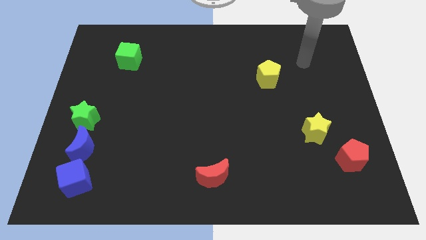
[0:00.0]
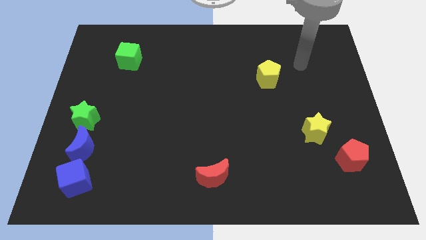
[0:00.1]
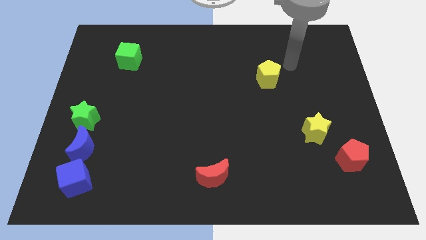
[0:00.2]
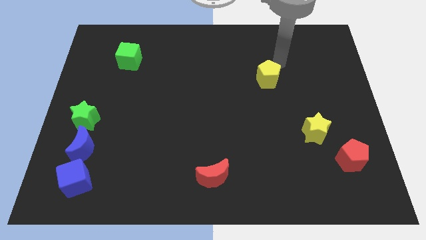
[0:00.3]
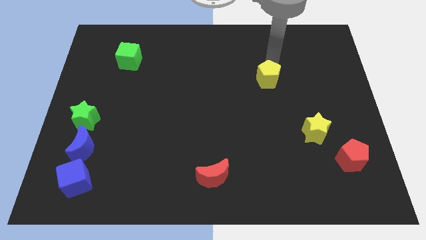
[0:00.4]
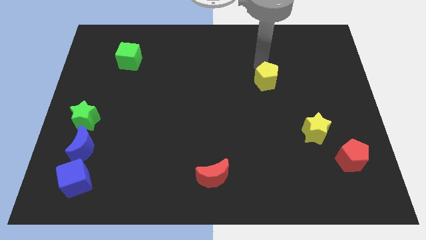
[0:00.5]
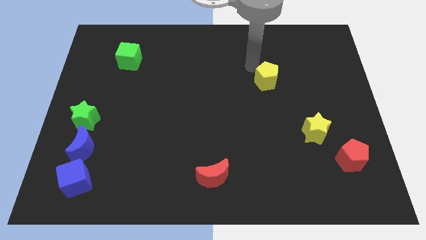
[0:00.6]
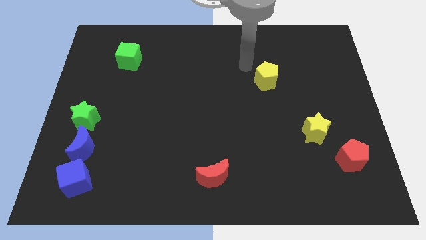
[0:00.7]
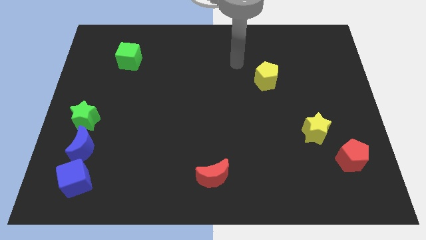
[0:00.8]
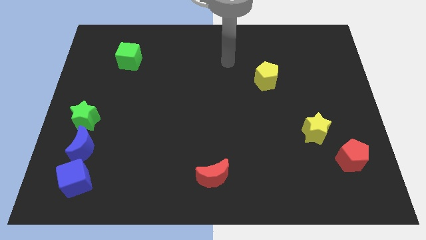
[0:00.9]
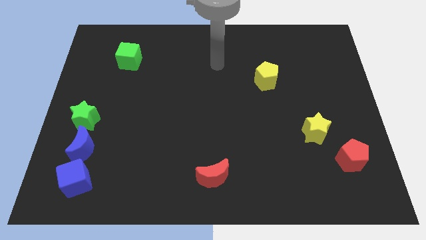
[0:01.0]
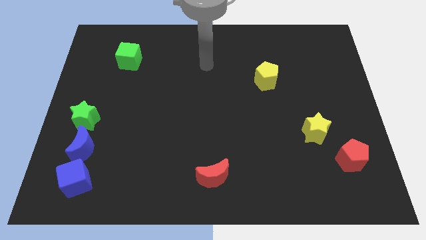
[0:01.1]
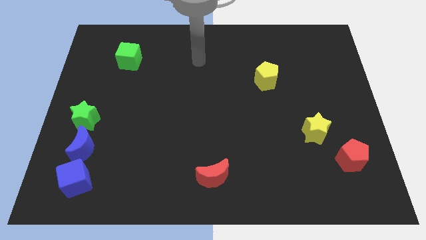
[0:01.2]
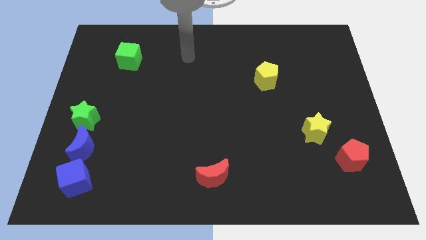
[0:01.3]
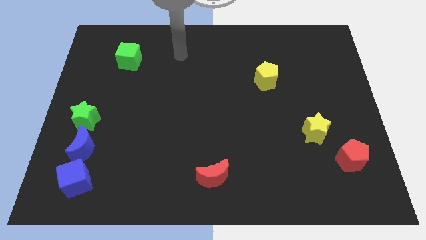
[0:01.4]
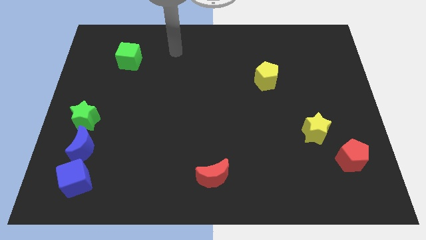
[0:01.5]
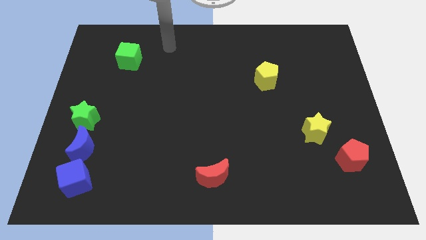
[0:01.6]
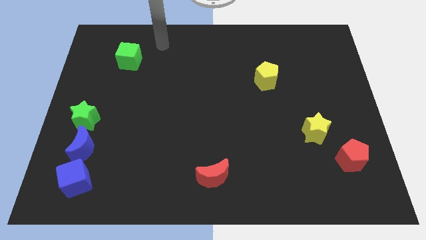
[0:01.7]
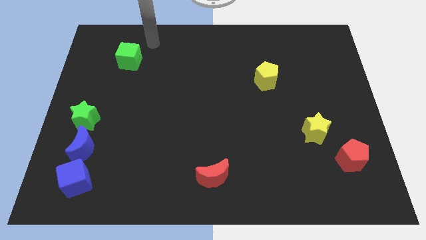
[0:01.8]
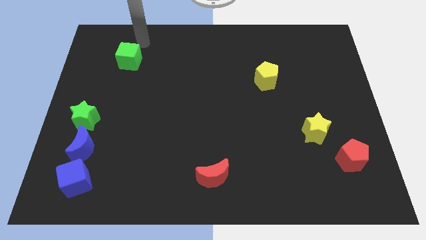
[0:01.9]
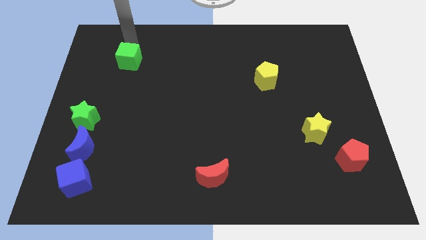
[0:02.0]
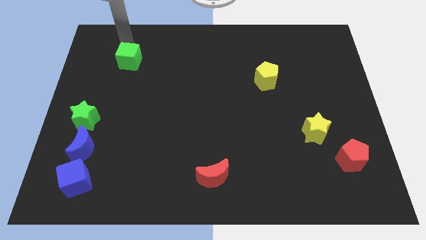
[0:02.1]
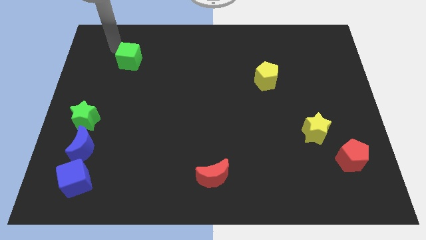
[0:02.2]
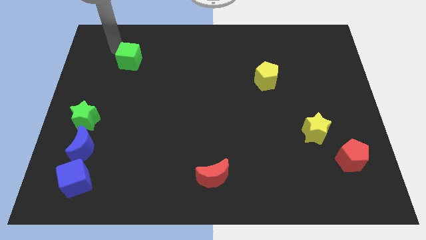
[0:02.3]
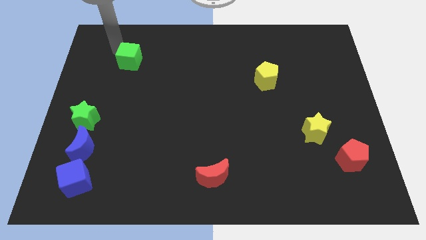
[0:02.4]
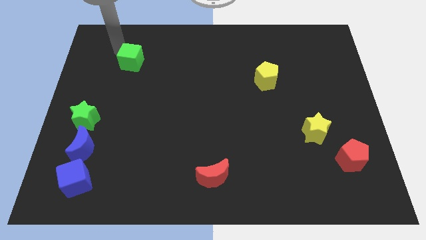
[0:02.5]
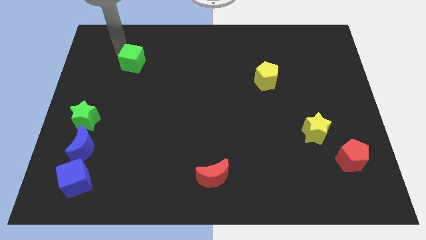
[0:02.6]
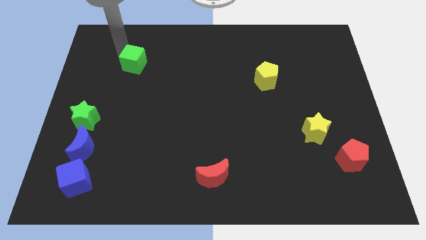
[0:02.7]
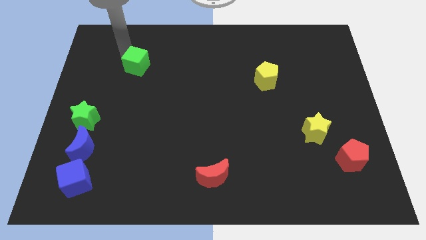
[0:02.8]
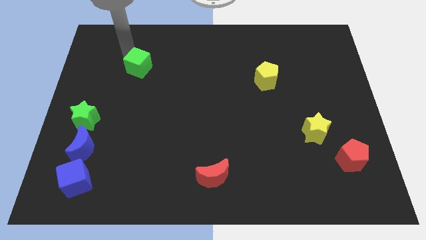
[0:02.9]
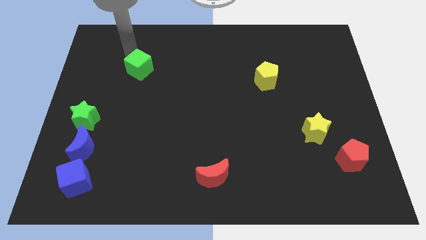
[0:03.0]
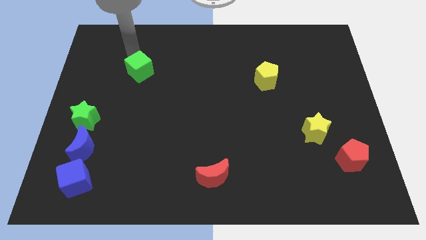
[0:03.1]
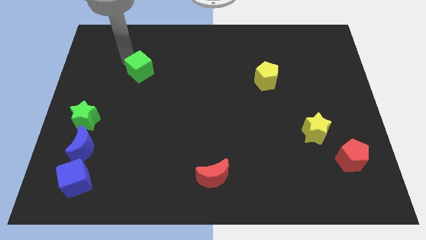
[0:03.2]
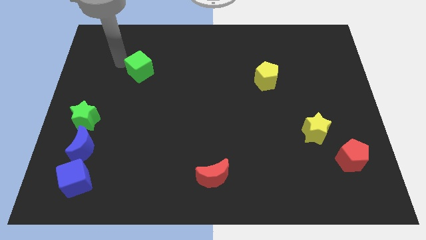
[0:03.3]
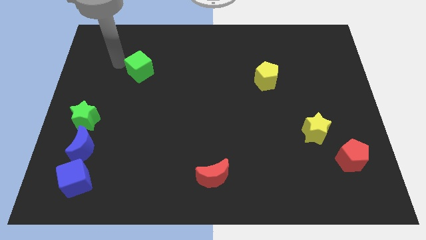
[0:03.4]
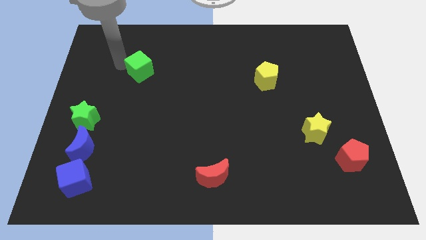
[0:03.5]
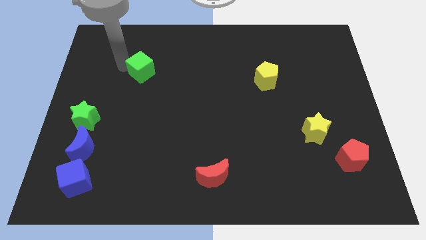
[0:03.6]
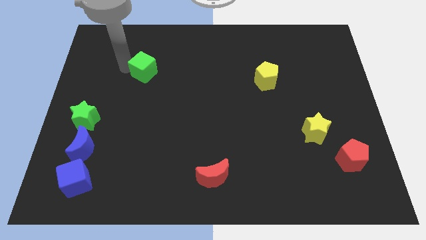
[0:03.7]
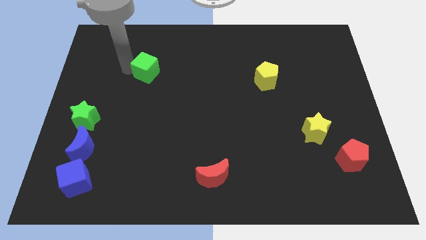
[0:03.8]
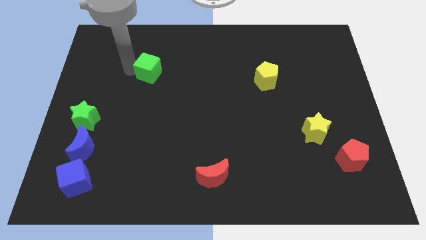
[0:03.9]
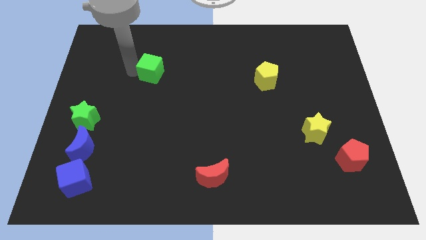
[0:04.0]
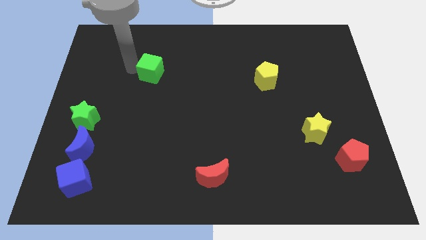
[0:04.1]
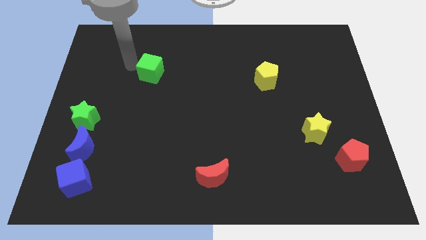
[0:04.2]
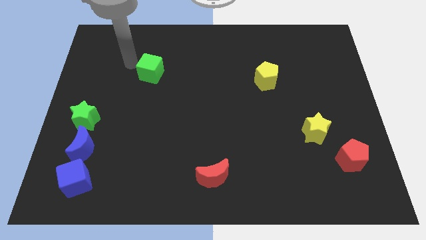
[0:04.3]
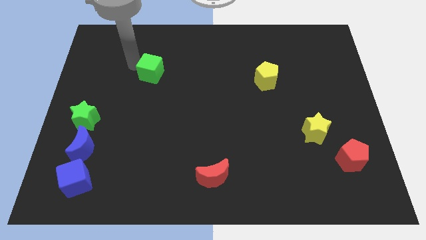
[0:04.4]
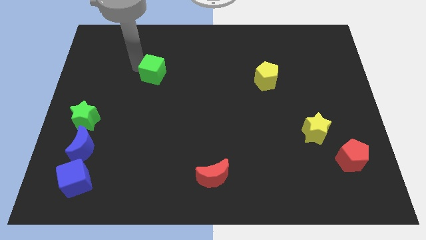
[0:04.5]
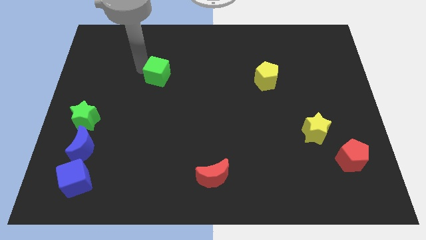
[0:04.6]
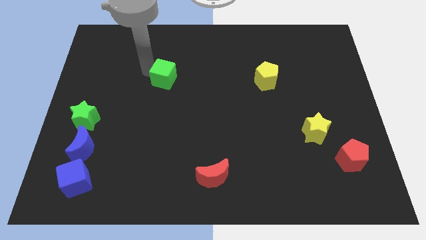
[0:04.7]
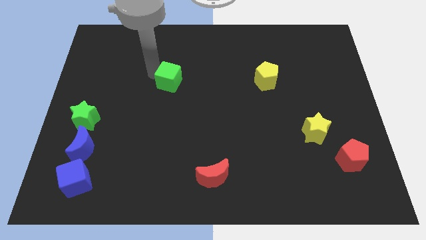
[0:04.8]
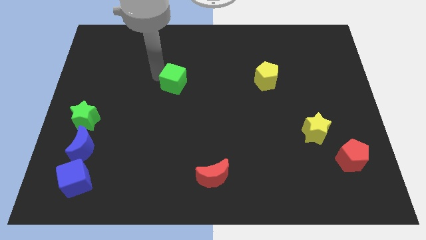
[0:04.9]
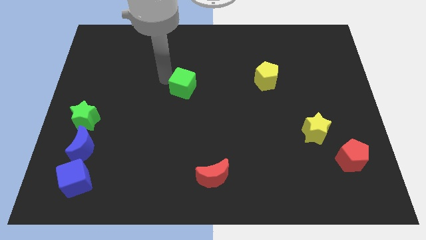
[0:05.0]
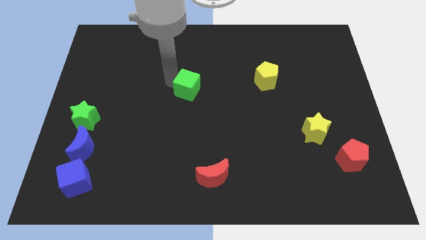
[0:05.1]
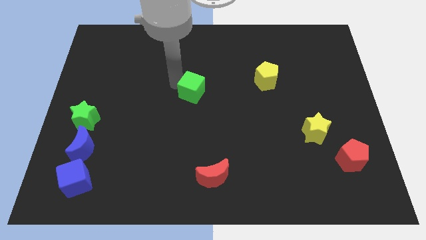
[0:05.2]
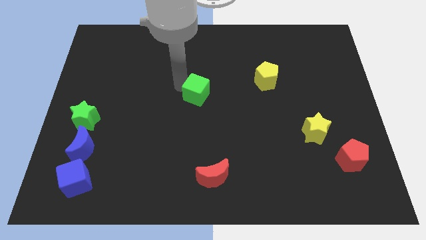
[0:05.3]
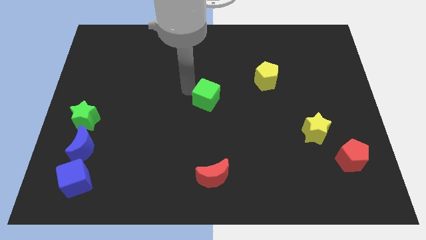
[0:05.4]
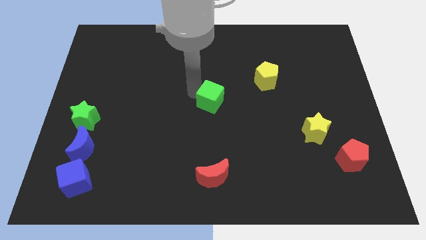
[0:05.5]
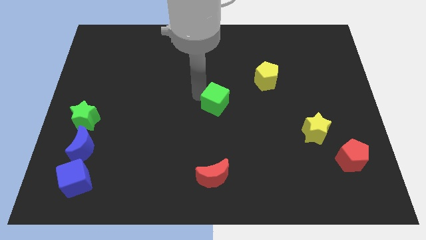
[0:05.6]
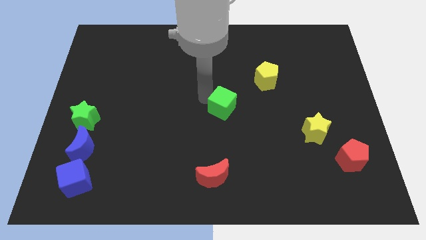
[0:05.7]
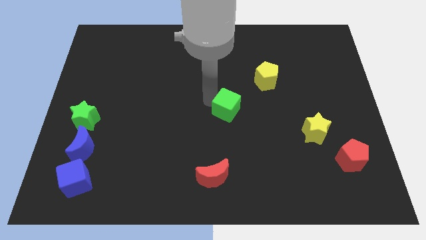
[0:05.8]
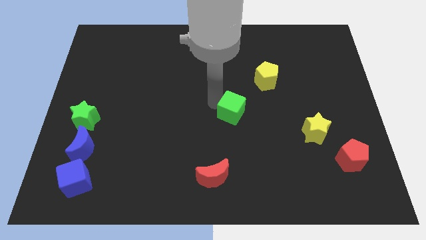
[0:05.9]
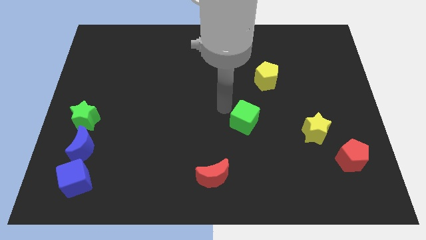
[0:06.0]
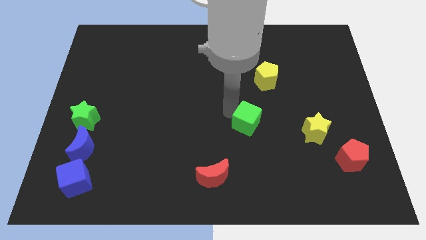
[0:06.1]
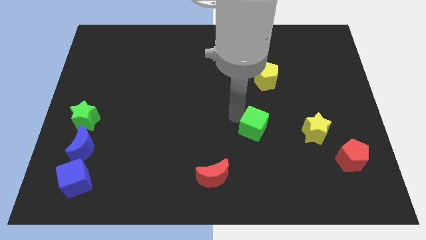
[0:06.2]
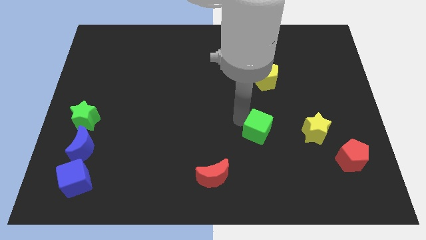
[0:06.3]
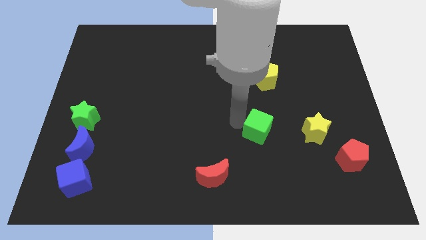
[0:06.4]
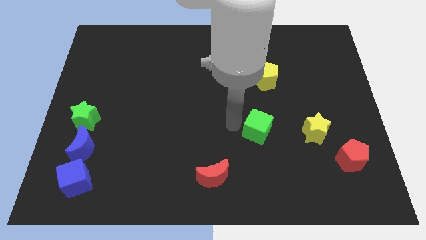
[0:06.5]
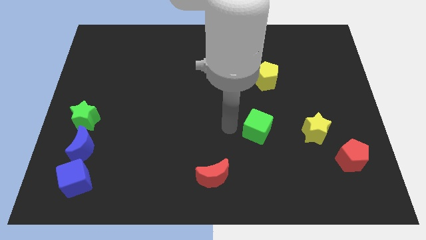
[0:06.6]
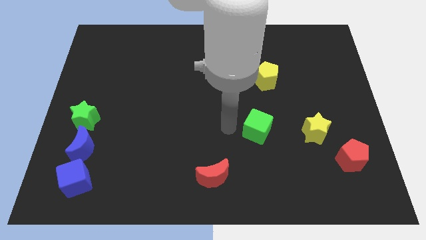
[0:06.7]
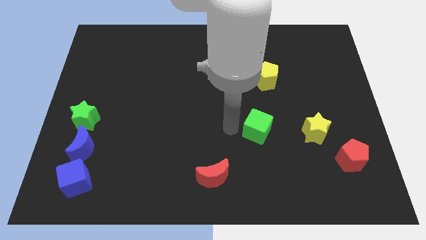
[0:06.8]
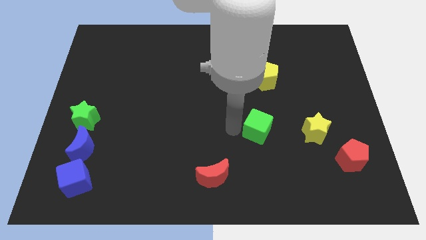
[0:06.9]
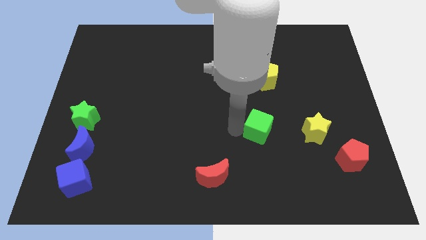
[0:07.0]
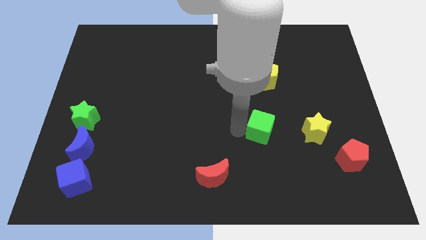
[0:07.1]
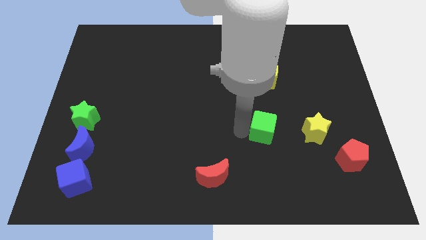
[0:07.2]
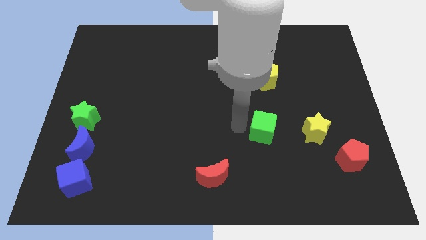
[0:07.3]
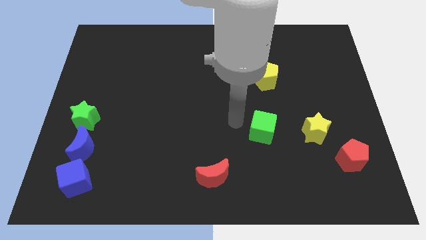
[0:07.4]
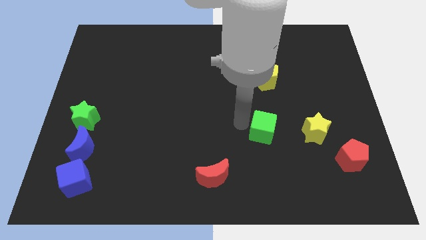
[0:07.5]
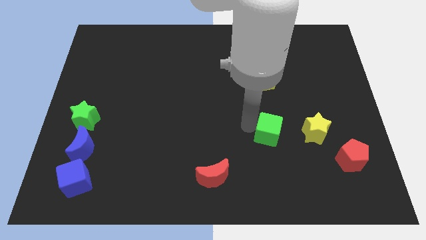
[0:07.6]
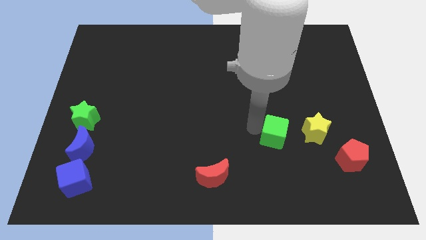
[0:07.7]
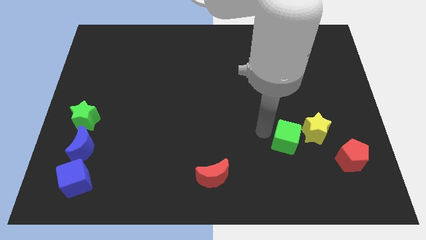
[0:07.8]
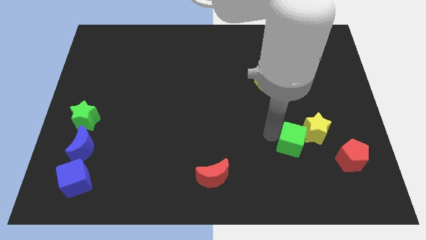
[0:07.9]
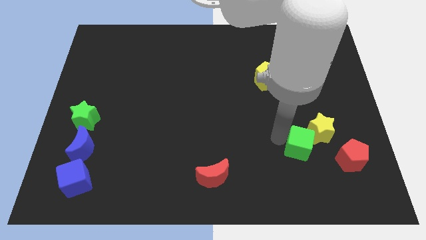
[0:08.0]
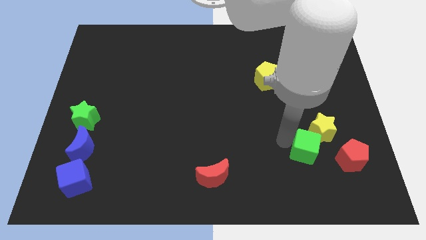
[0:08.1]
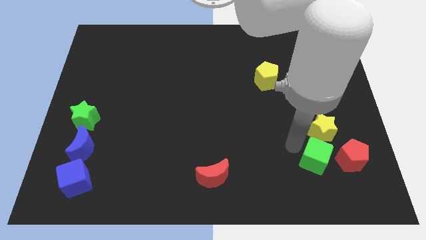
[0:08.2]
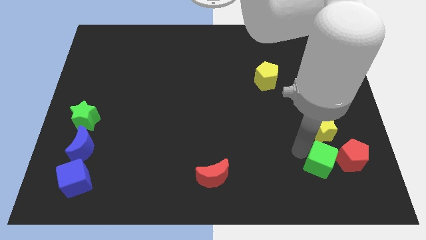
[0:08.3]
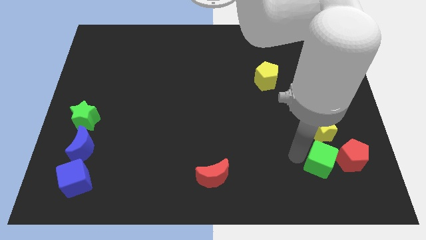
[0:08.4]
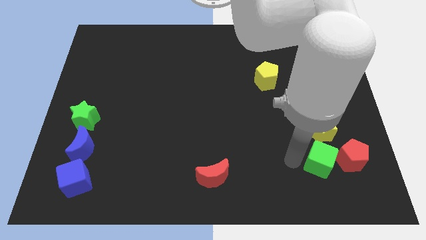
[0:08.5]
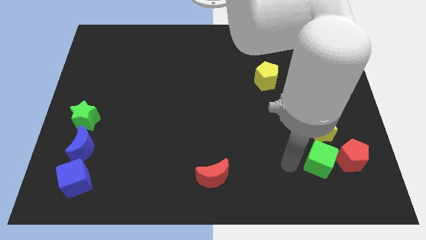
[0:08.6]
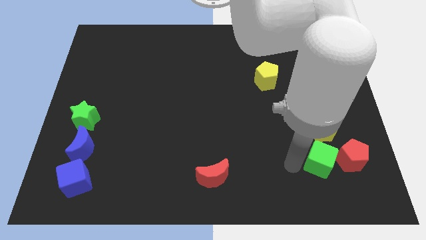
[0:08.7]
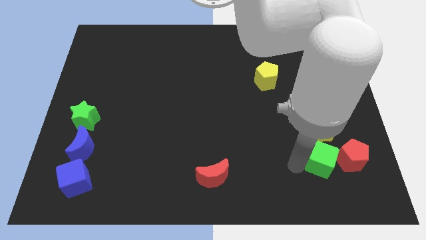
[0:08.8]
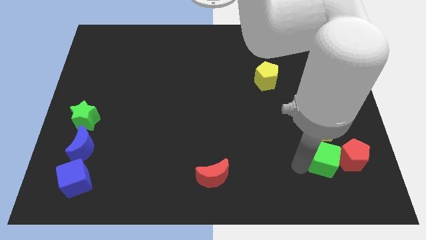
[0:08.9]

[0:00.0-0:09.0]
slide the green cube close to the red pentagon
